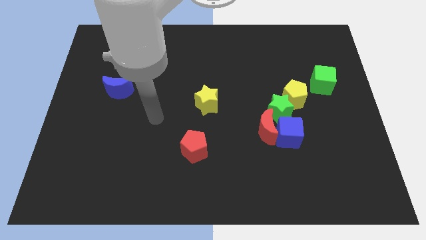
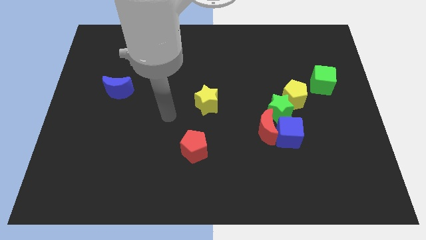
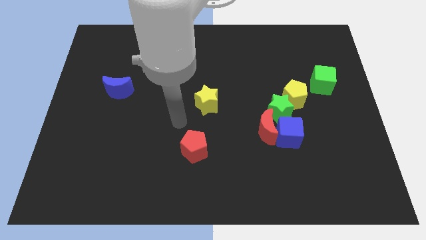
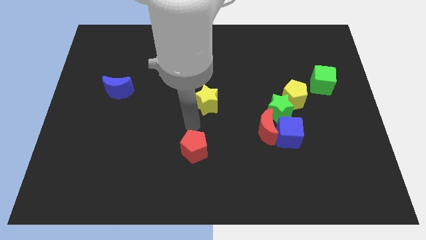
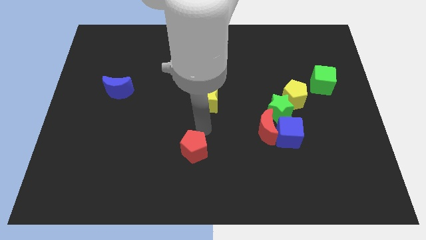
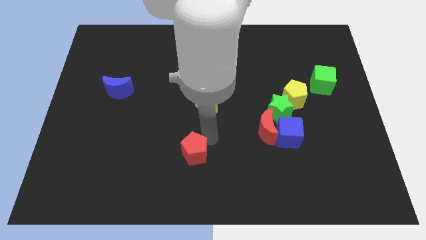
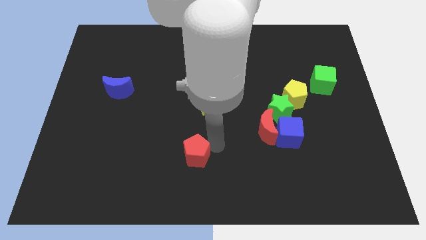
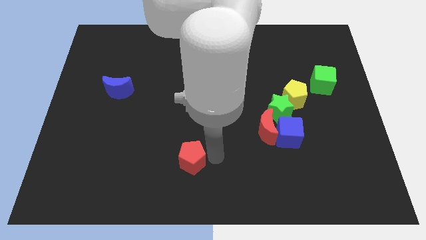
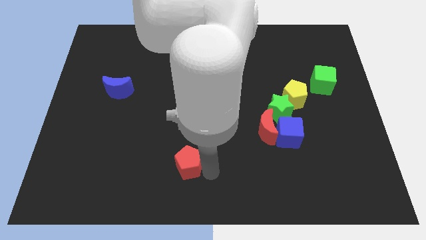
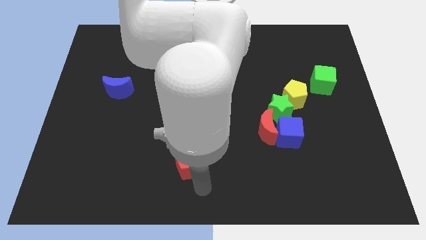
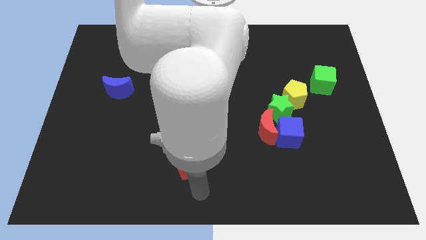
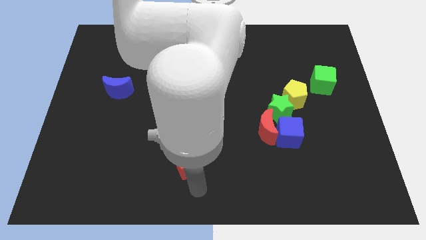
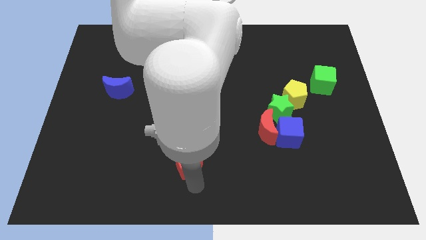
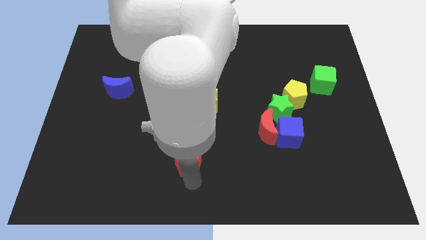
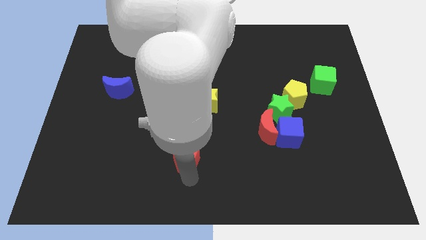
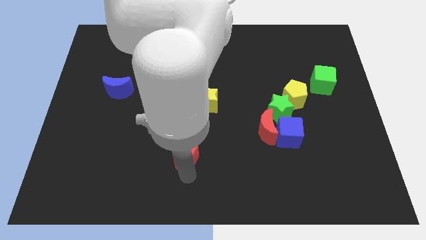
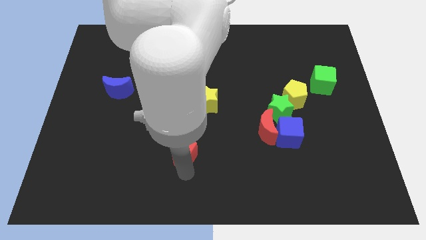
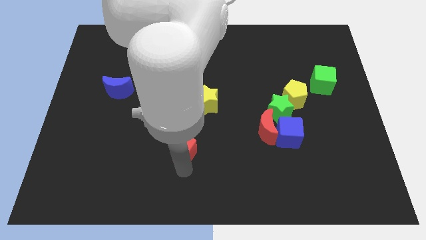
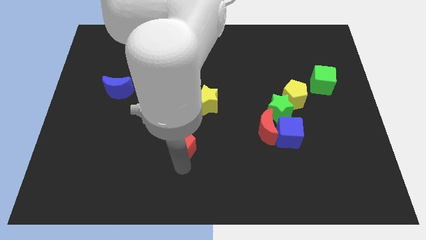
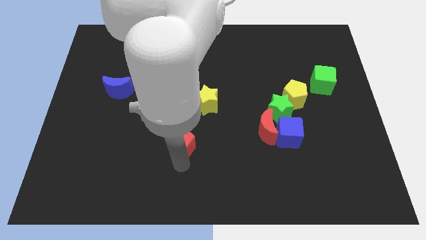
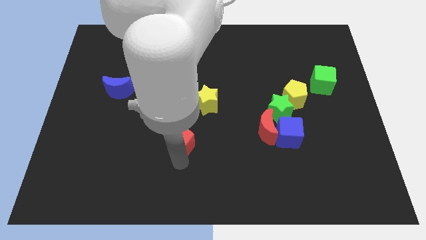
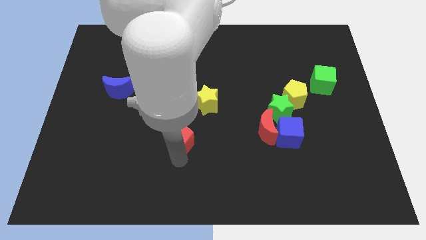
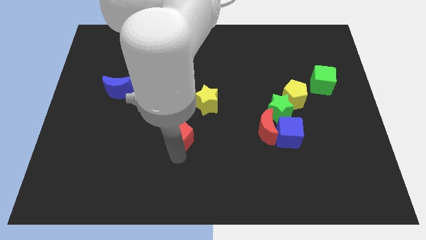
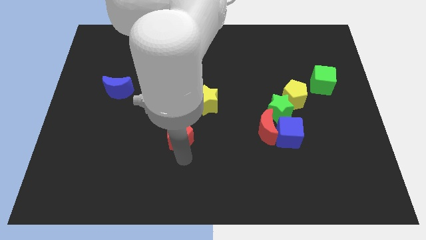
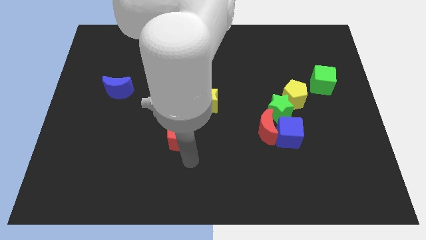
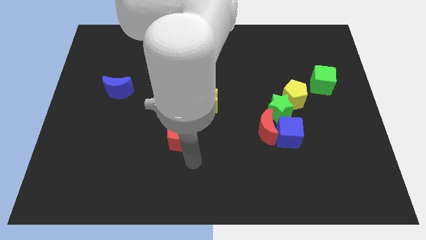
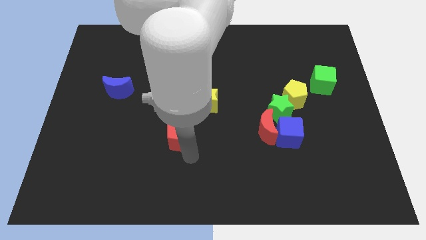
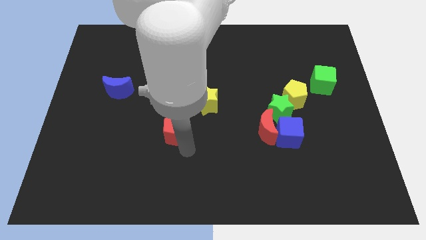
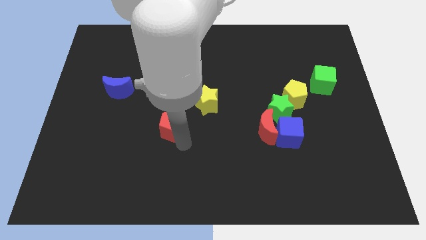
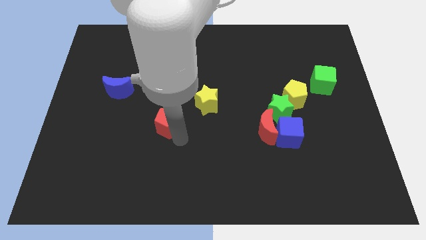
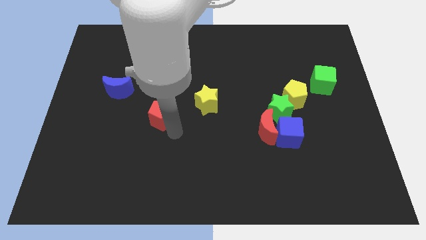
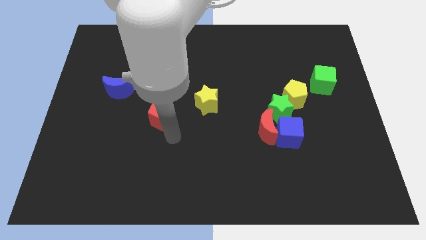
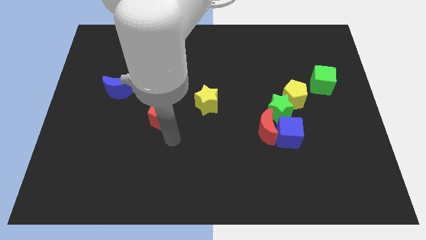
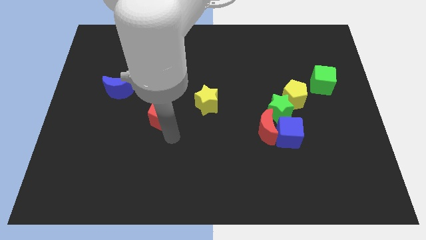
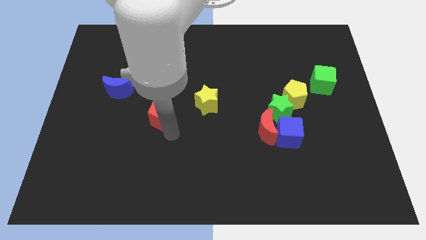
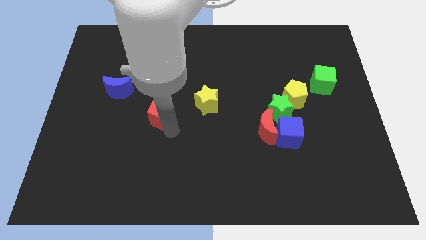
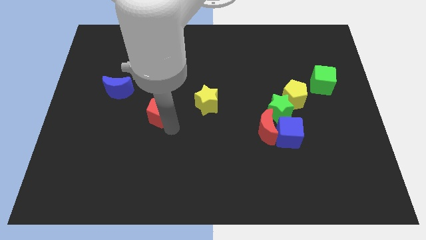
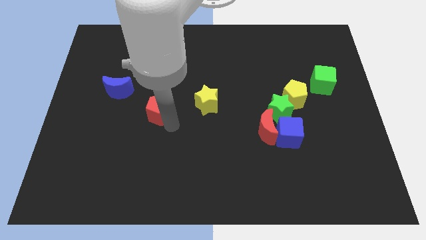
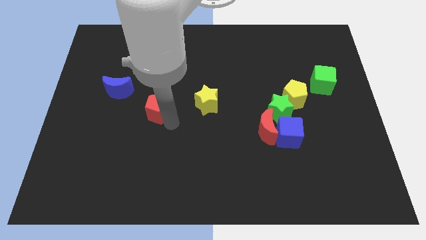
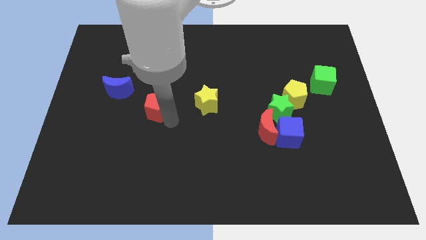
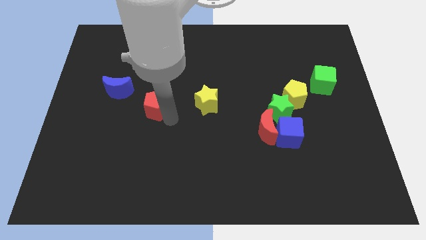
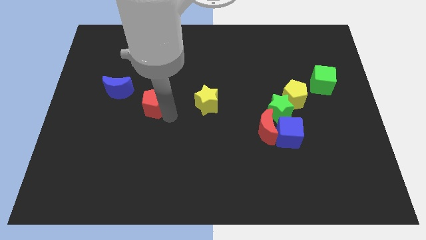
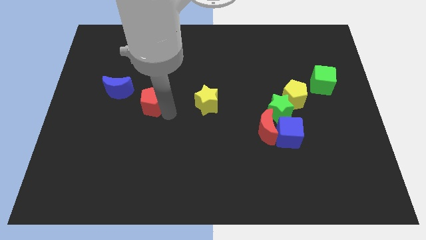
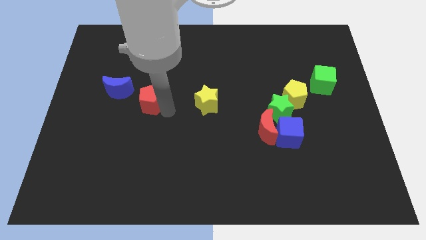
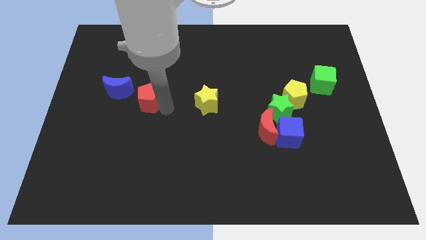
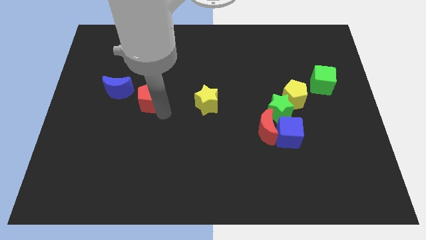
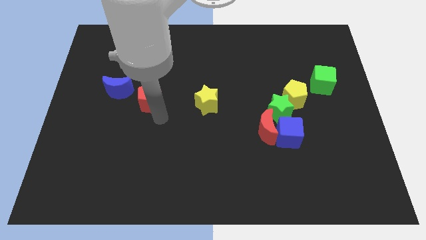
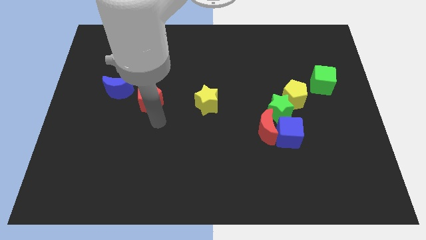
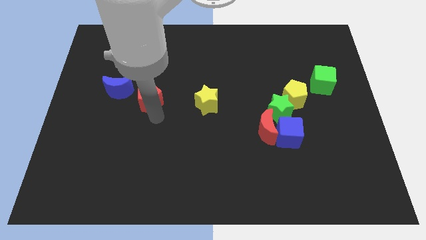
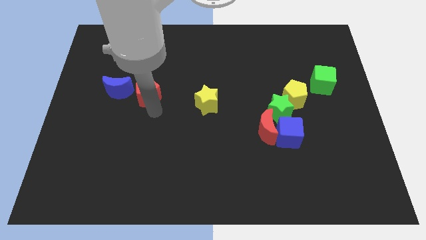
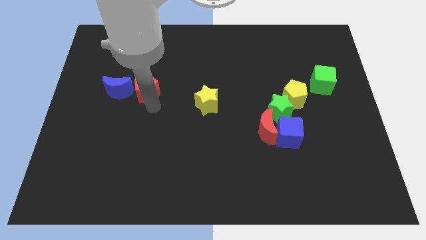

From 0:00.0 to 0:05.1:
slide the red pentagon upwards and left

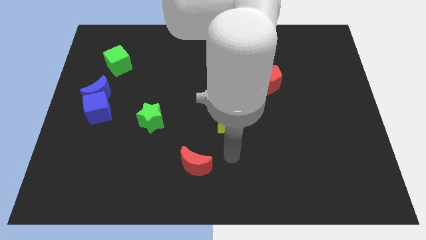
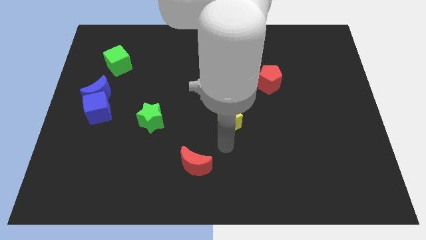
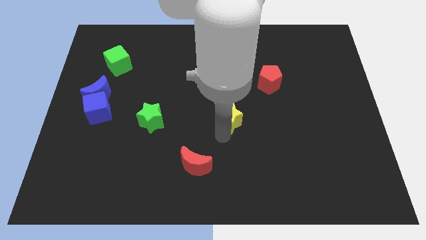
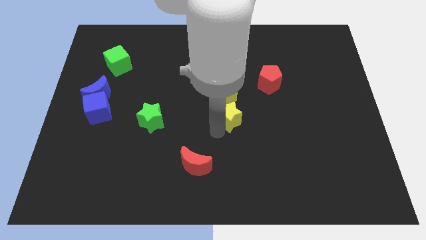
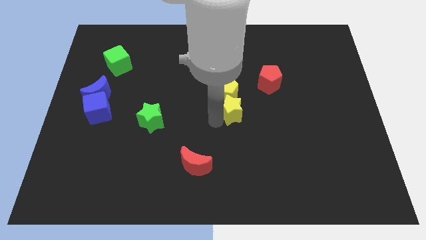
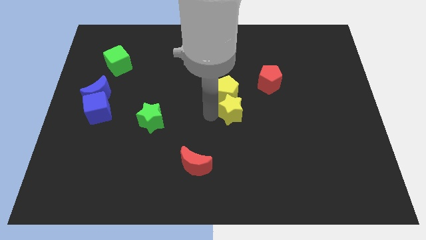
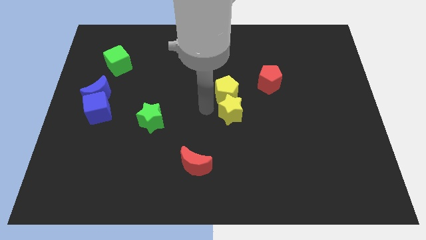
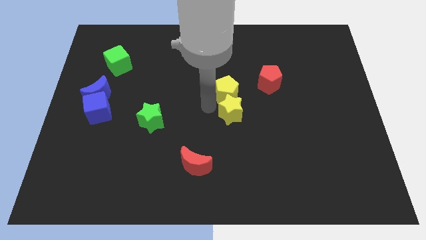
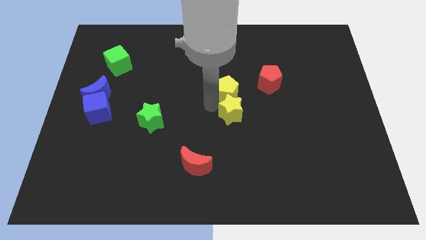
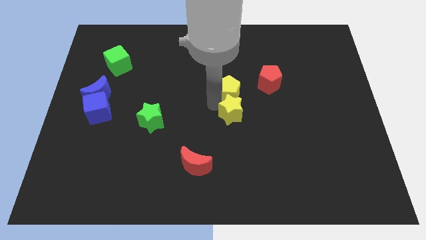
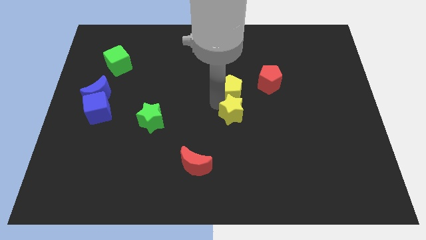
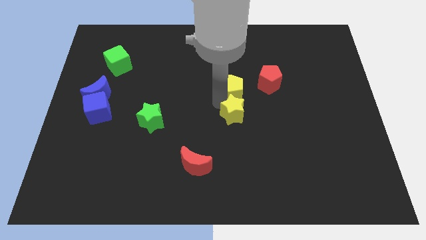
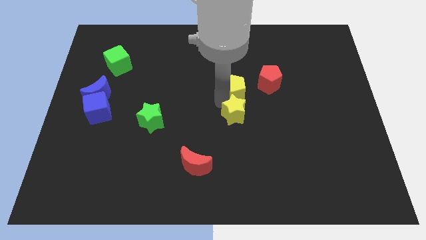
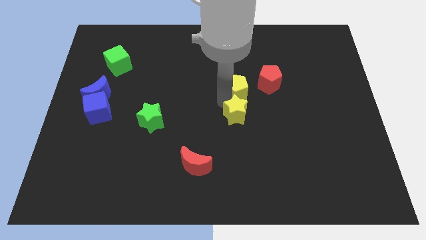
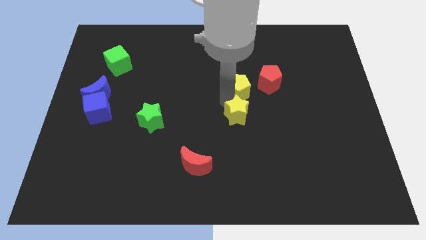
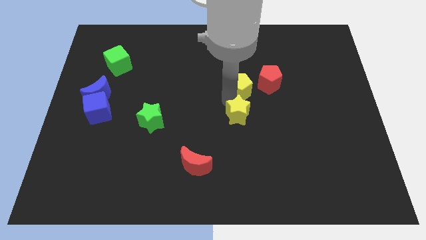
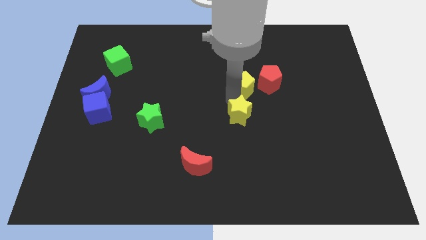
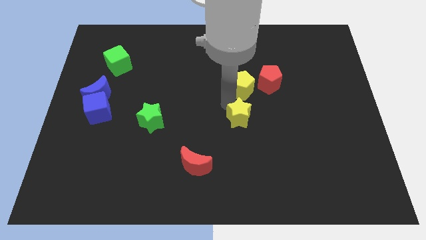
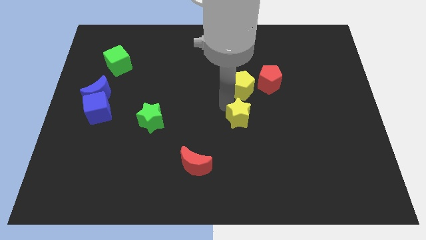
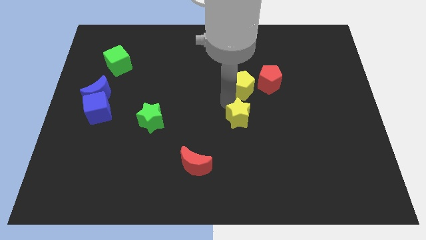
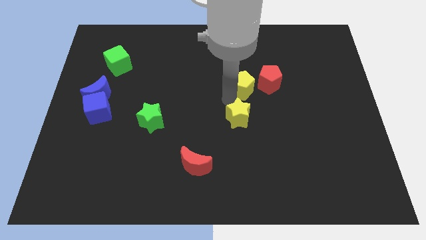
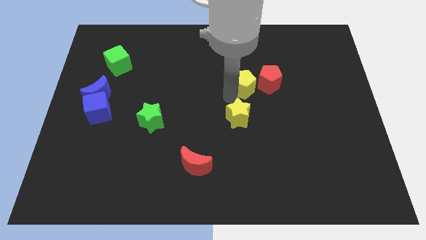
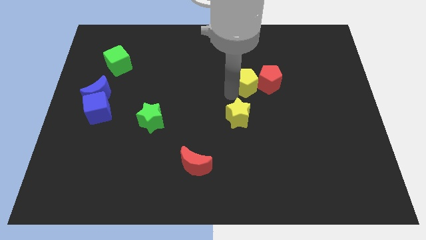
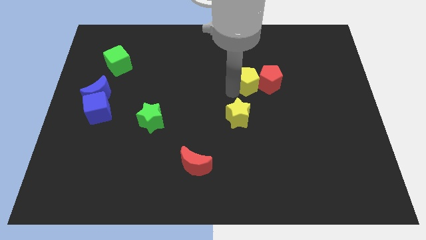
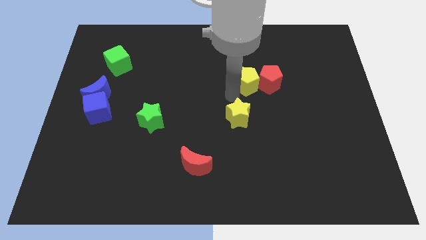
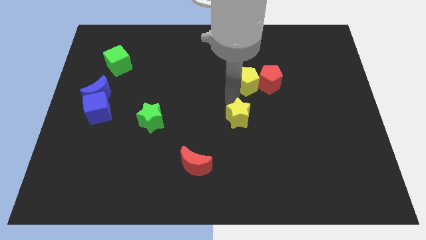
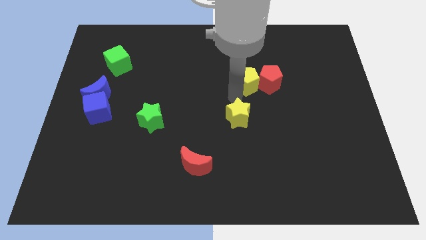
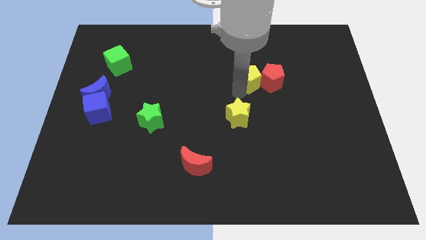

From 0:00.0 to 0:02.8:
push the yellow pentagon somewhat upwards and then right

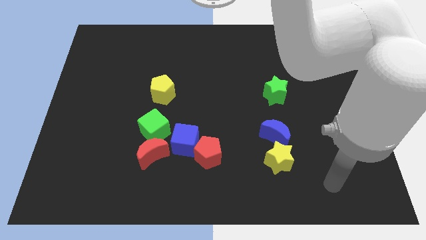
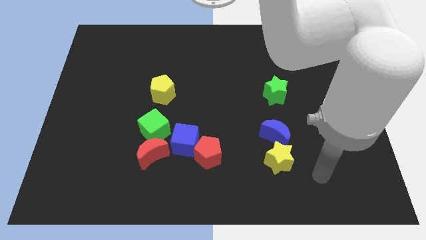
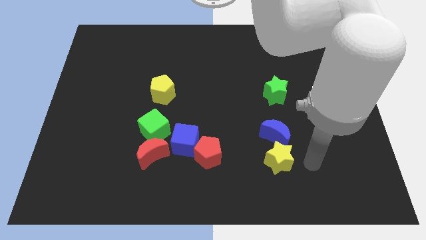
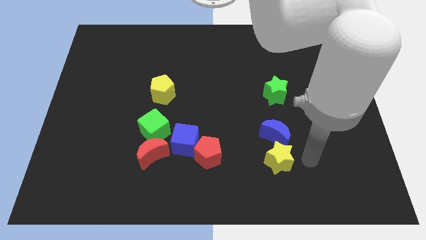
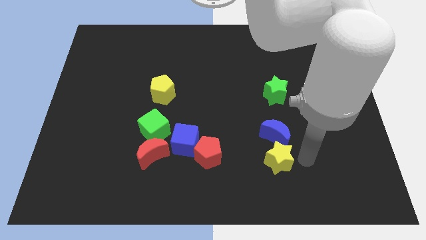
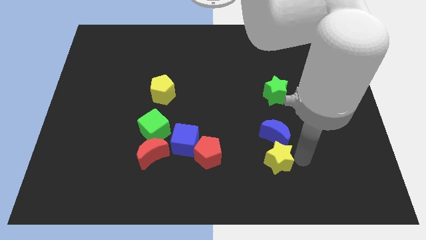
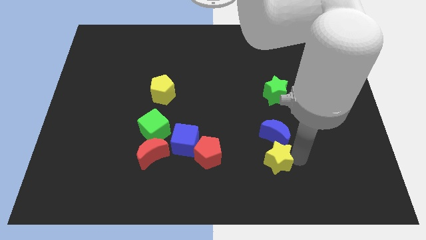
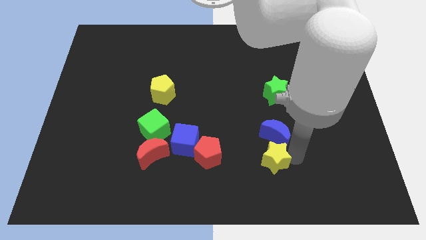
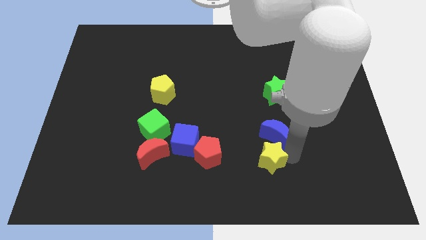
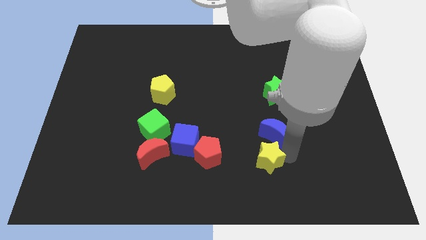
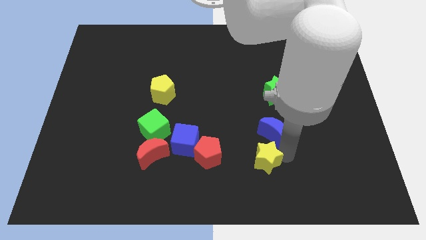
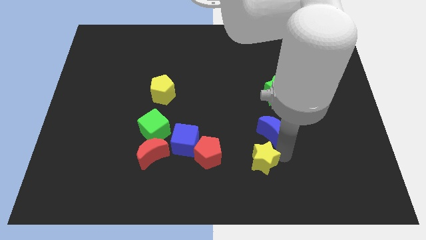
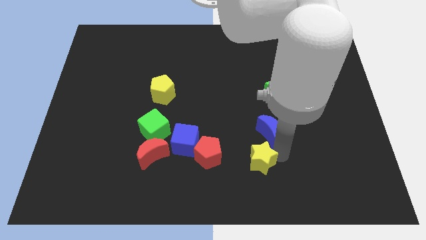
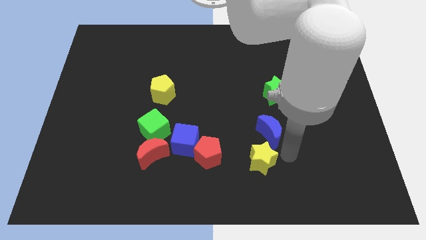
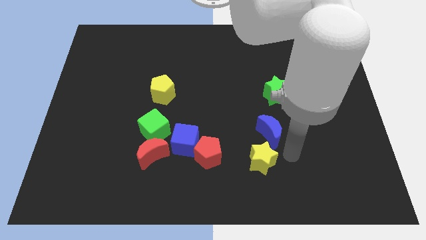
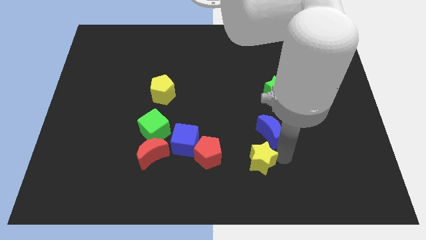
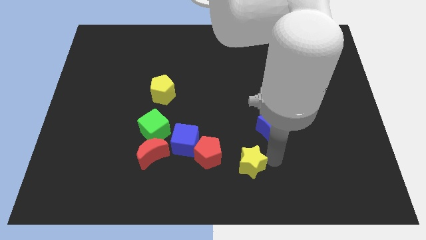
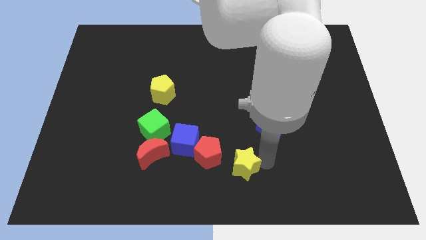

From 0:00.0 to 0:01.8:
push the yellow star to the left slightly
